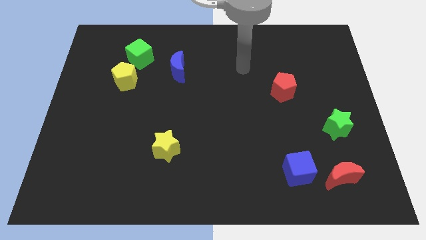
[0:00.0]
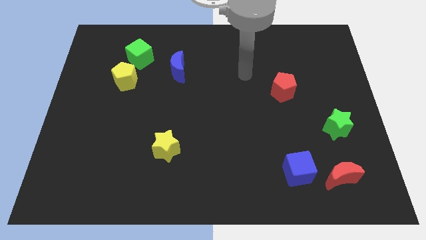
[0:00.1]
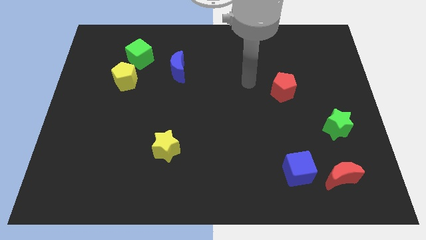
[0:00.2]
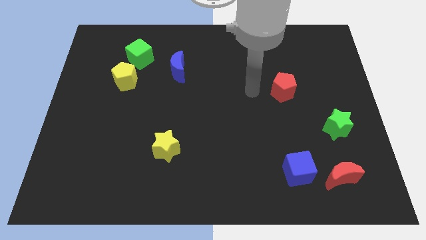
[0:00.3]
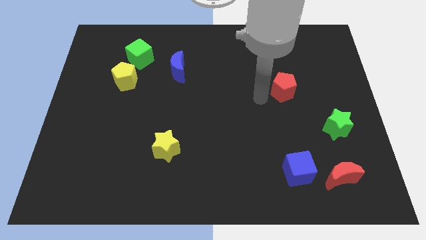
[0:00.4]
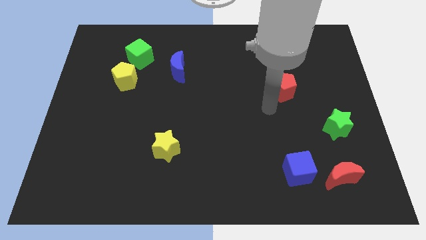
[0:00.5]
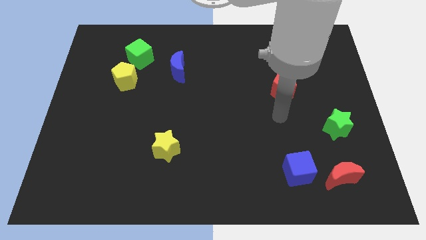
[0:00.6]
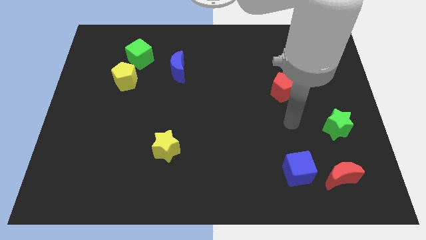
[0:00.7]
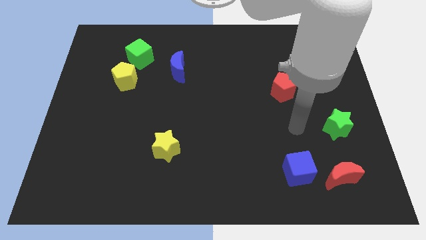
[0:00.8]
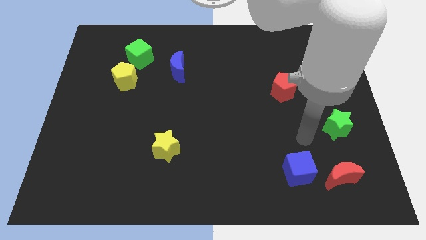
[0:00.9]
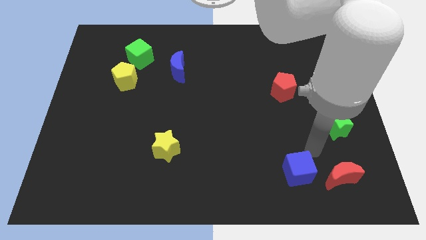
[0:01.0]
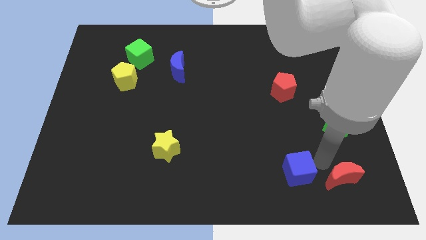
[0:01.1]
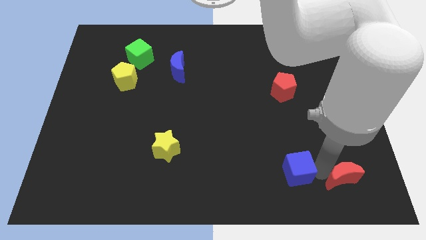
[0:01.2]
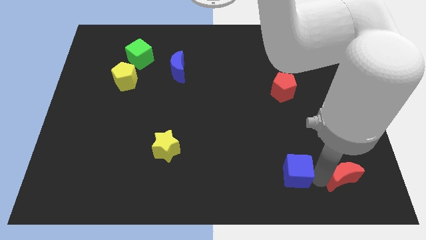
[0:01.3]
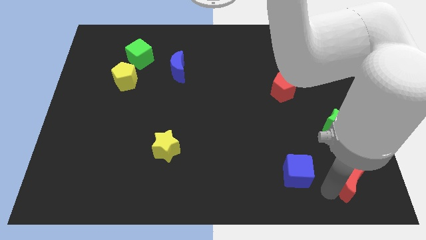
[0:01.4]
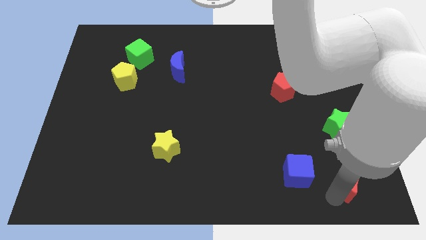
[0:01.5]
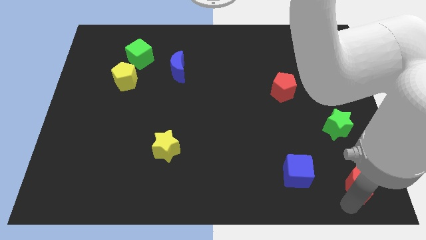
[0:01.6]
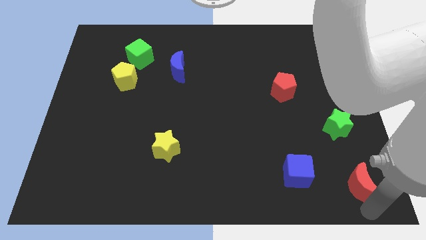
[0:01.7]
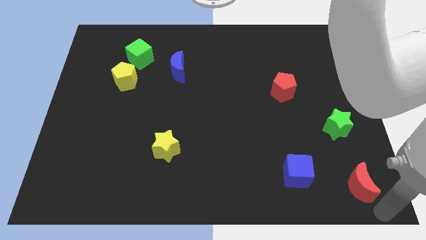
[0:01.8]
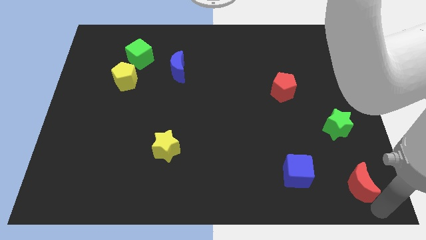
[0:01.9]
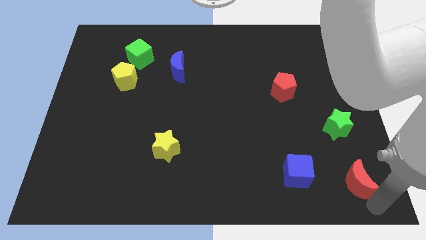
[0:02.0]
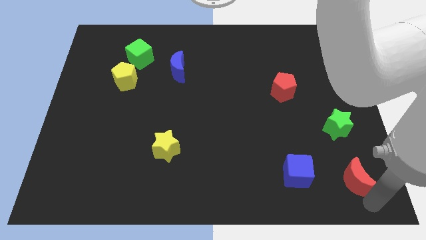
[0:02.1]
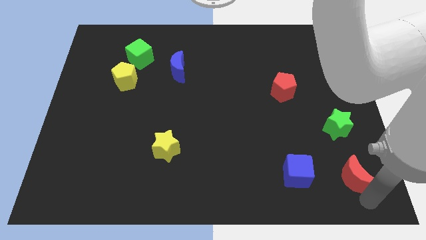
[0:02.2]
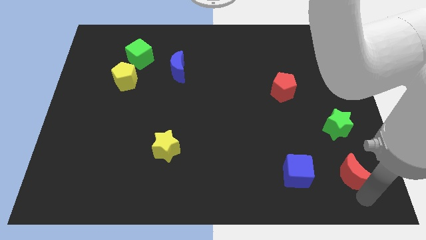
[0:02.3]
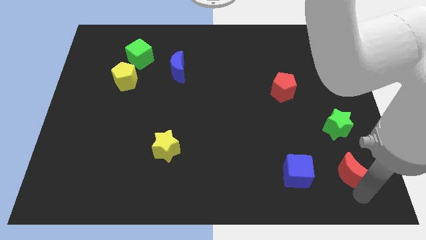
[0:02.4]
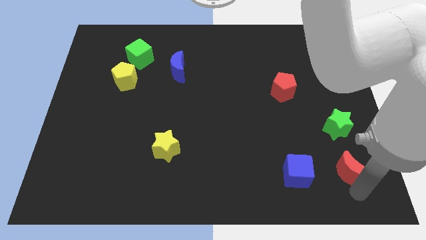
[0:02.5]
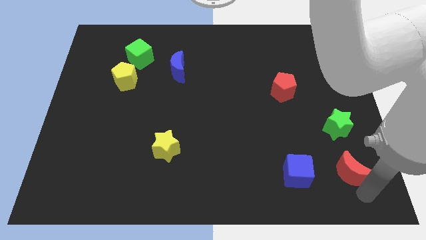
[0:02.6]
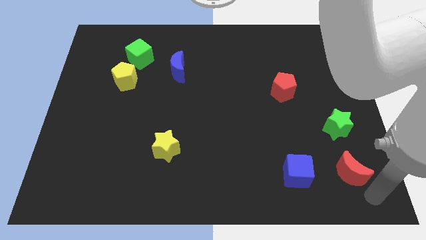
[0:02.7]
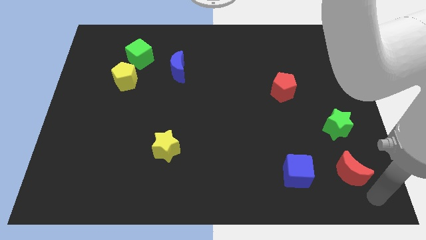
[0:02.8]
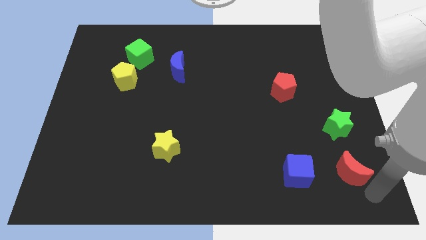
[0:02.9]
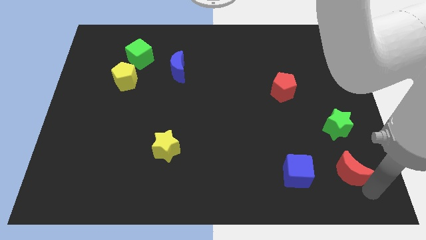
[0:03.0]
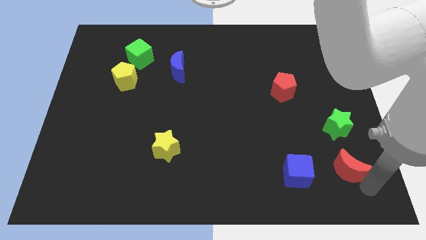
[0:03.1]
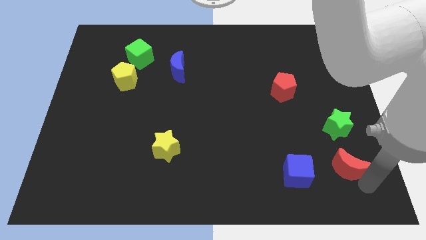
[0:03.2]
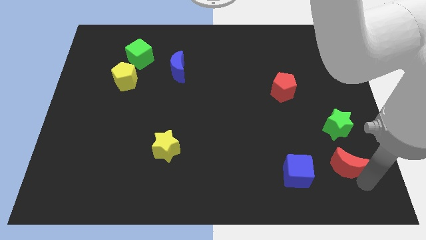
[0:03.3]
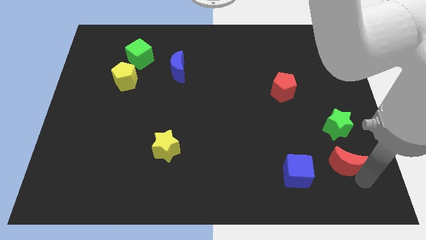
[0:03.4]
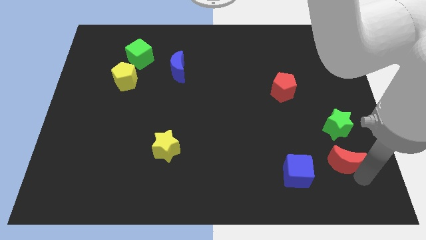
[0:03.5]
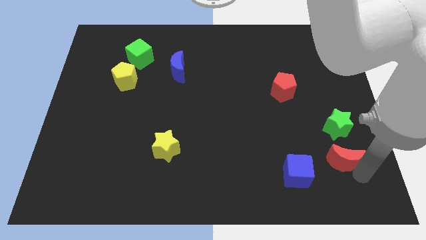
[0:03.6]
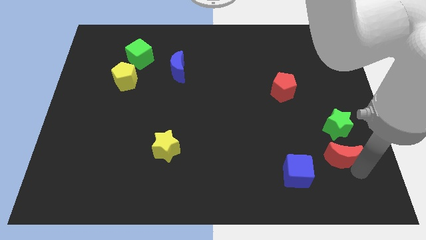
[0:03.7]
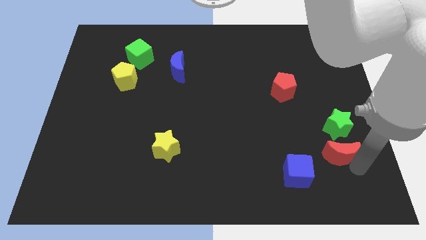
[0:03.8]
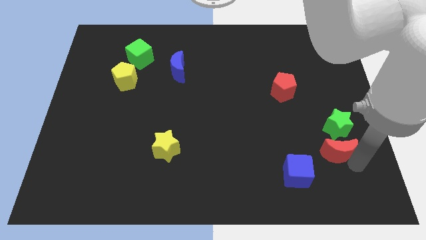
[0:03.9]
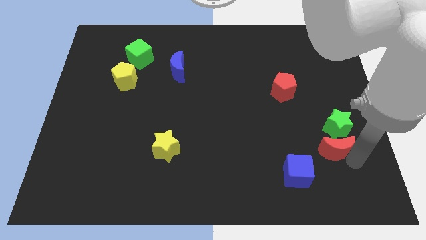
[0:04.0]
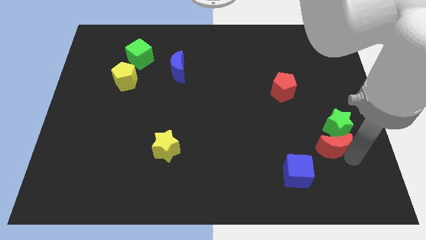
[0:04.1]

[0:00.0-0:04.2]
slightly move the red moon upwards

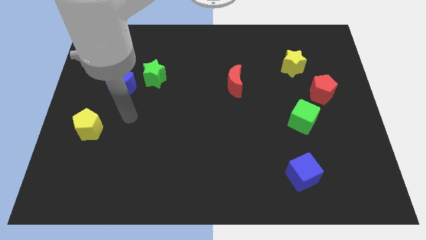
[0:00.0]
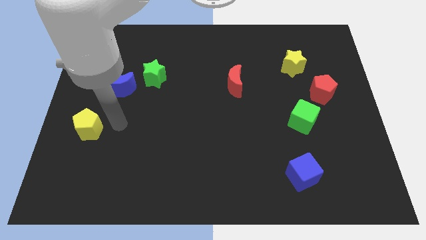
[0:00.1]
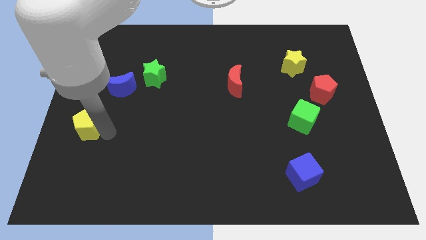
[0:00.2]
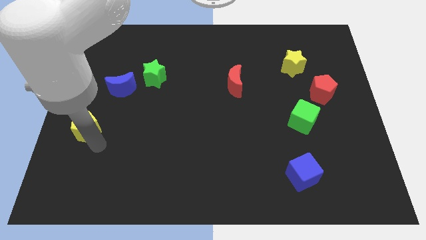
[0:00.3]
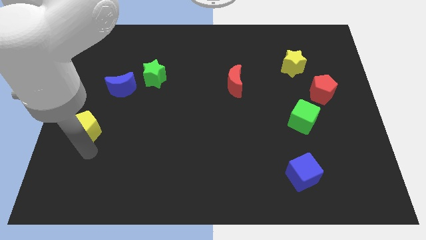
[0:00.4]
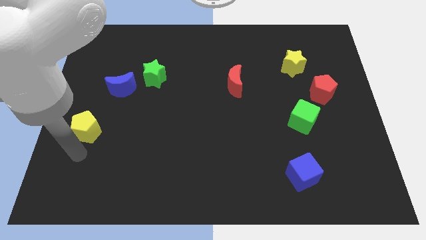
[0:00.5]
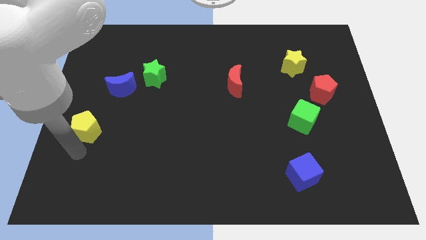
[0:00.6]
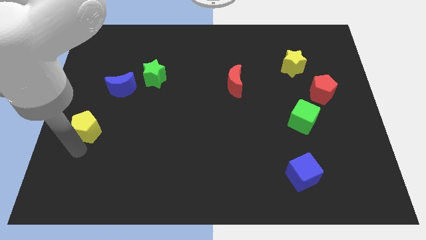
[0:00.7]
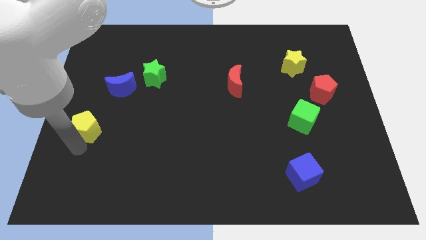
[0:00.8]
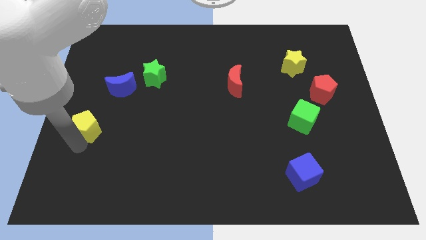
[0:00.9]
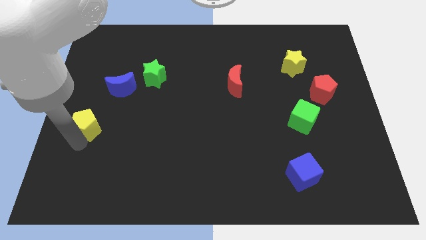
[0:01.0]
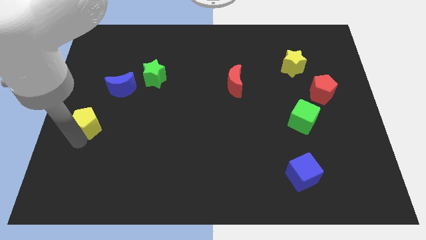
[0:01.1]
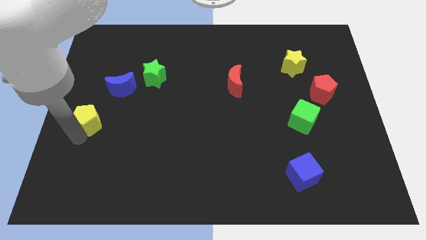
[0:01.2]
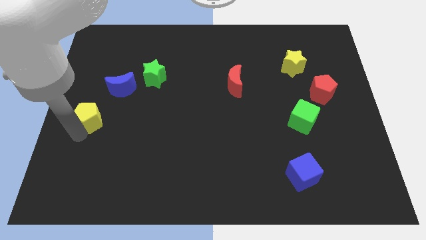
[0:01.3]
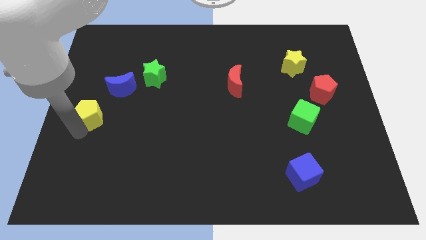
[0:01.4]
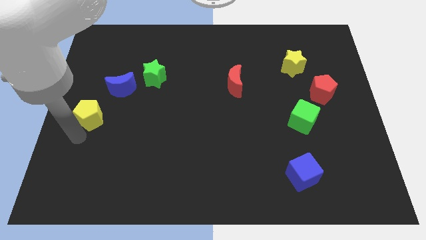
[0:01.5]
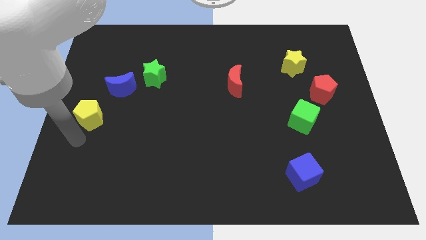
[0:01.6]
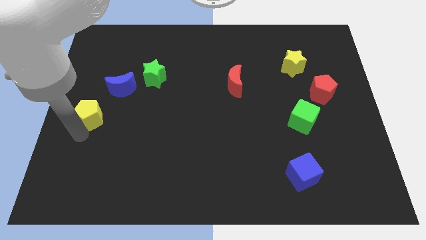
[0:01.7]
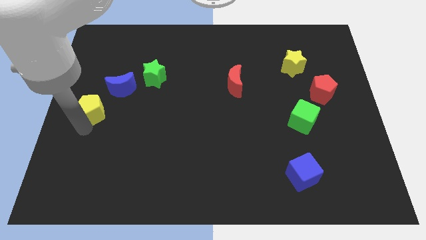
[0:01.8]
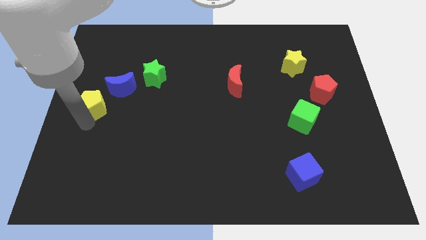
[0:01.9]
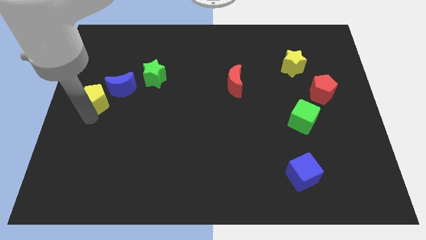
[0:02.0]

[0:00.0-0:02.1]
push the yellow pentagon somewhat upwards

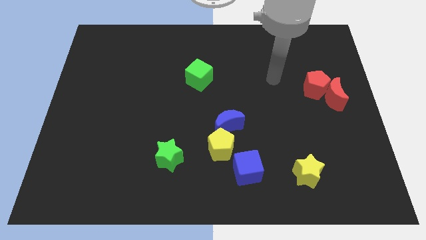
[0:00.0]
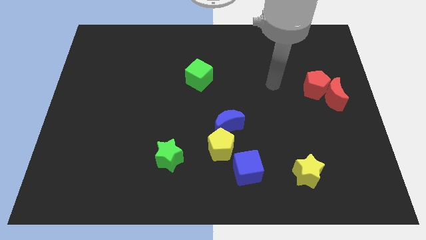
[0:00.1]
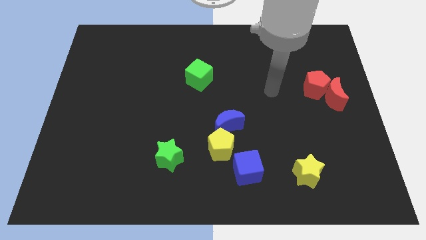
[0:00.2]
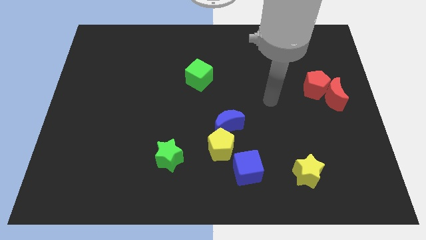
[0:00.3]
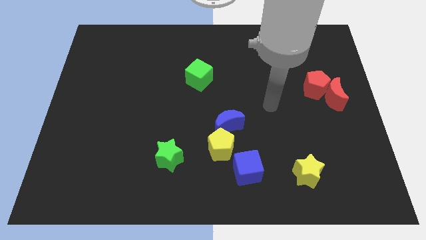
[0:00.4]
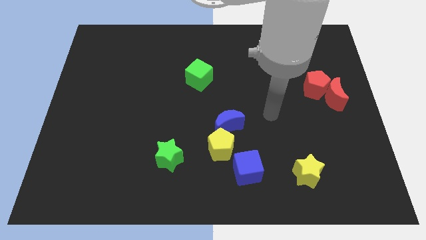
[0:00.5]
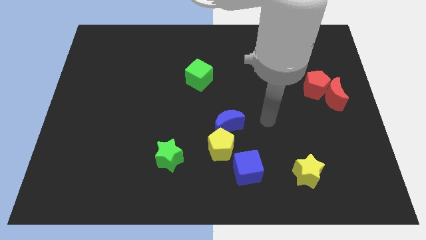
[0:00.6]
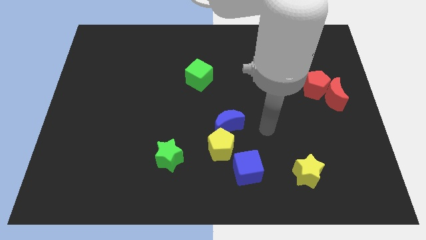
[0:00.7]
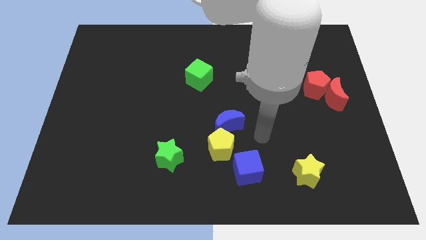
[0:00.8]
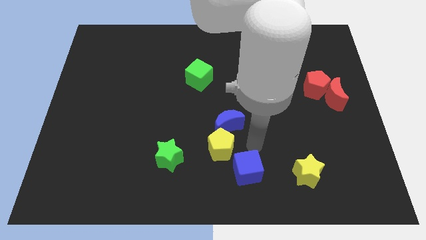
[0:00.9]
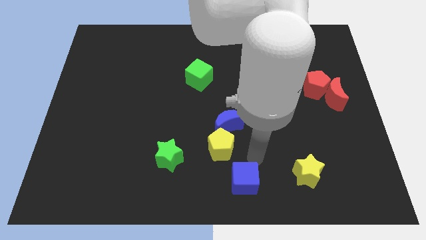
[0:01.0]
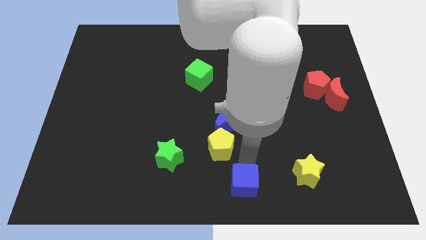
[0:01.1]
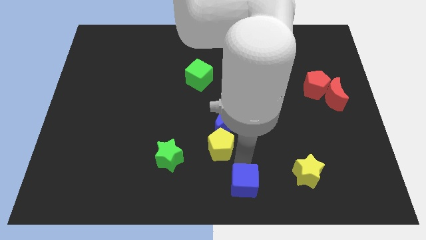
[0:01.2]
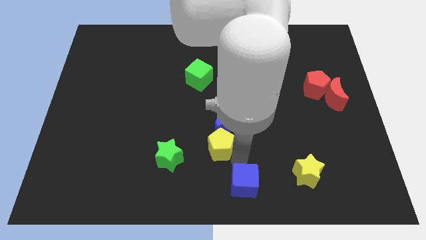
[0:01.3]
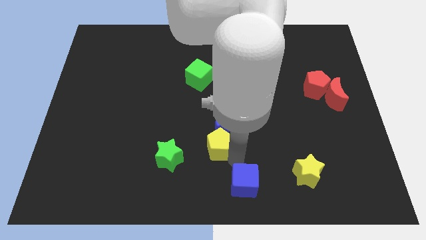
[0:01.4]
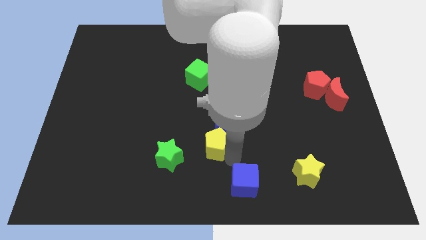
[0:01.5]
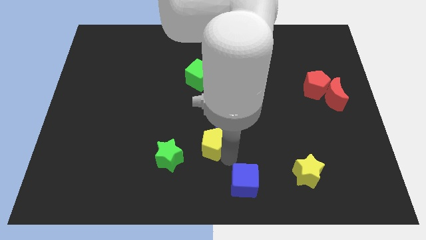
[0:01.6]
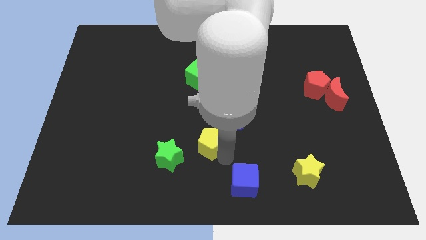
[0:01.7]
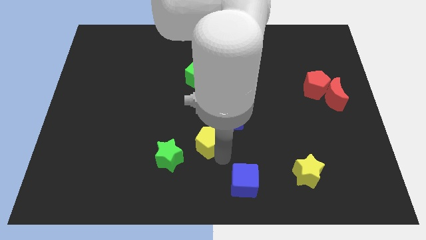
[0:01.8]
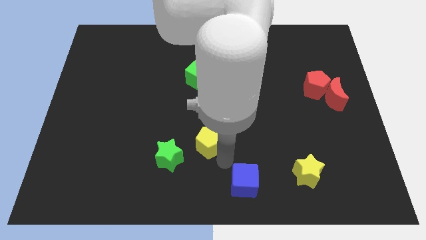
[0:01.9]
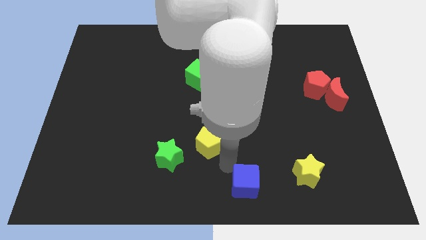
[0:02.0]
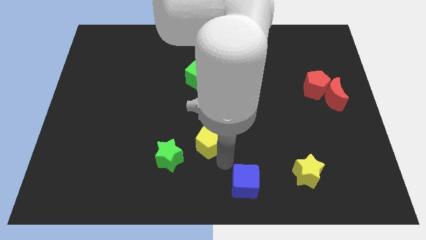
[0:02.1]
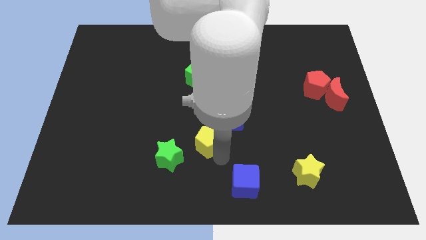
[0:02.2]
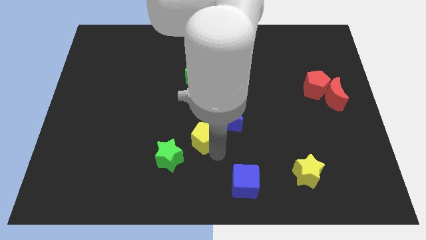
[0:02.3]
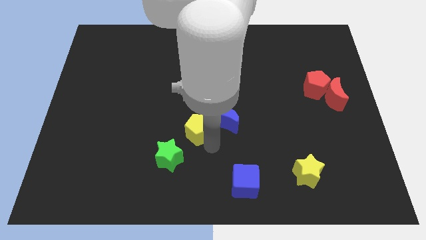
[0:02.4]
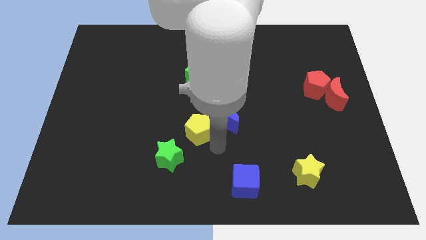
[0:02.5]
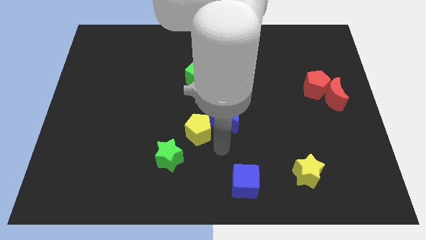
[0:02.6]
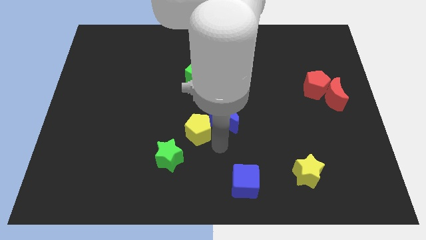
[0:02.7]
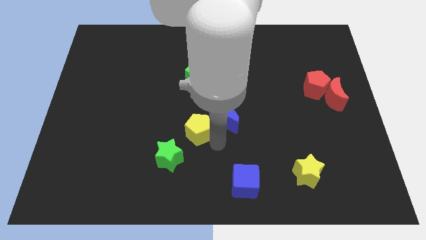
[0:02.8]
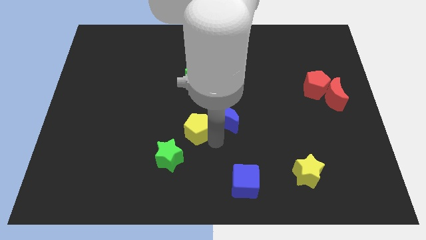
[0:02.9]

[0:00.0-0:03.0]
slightly slide the yellow pentagon diagonally upwards and left
